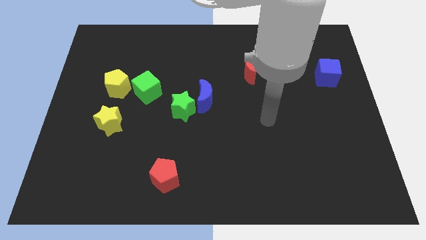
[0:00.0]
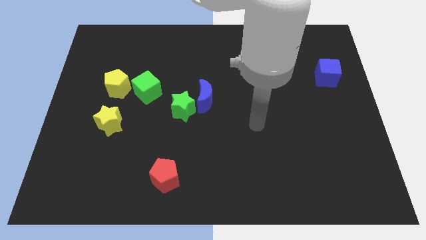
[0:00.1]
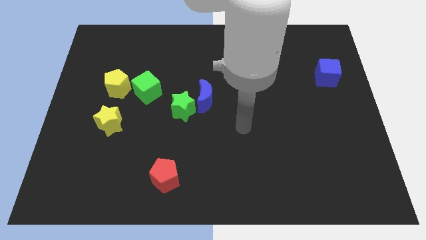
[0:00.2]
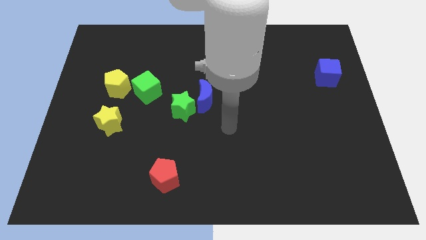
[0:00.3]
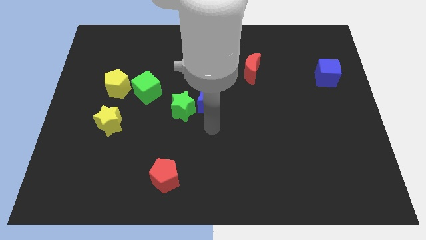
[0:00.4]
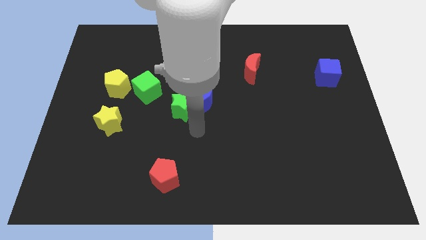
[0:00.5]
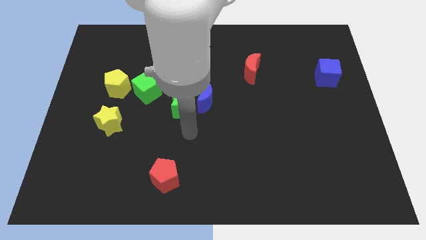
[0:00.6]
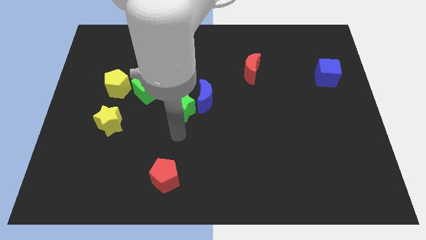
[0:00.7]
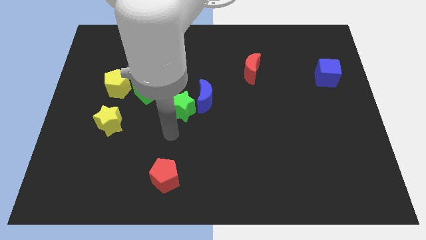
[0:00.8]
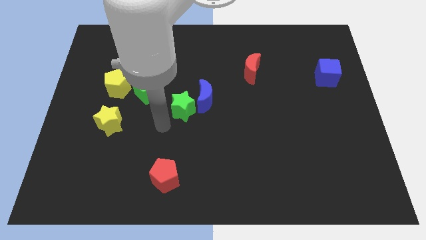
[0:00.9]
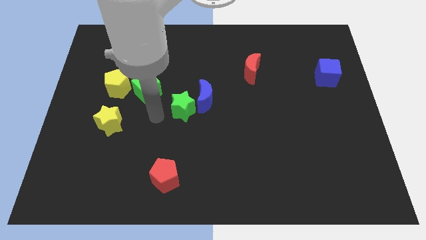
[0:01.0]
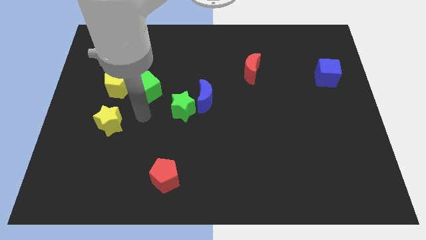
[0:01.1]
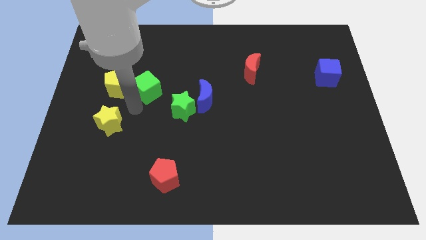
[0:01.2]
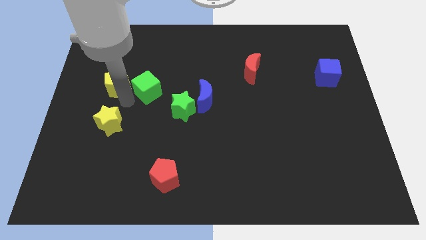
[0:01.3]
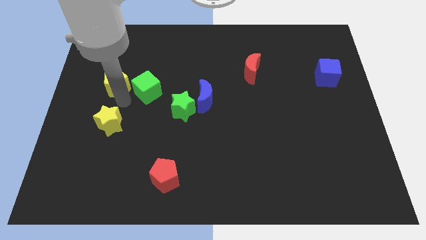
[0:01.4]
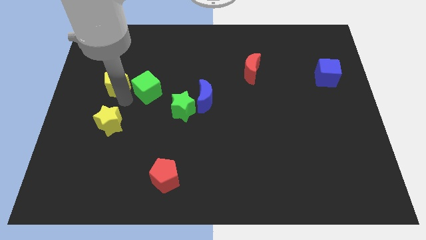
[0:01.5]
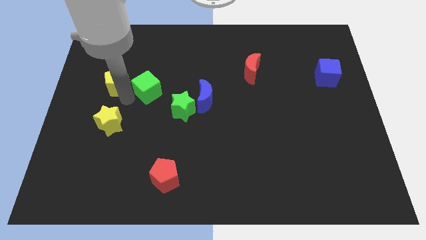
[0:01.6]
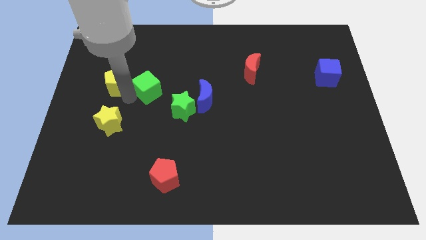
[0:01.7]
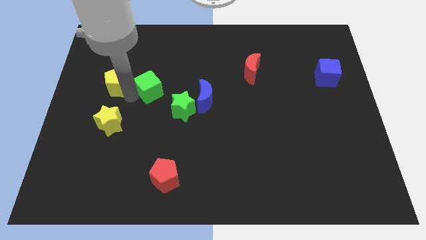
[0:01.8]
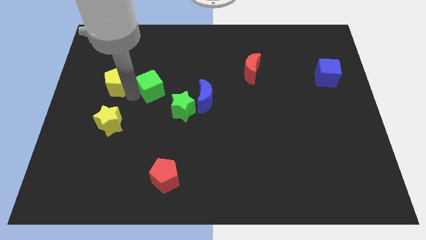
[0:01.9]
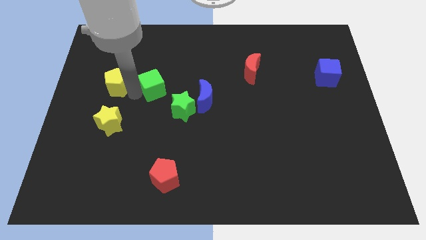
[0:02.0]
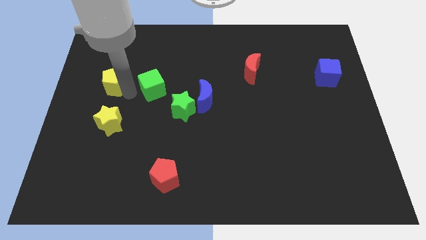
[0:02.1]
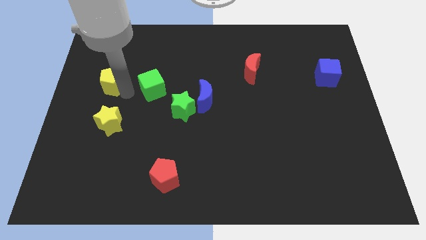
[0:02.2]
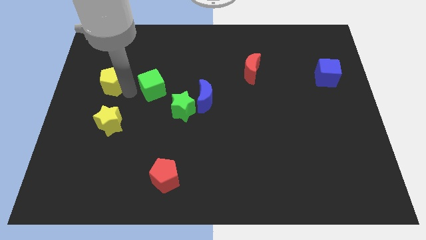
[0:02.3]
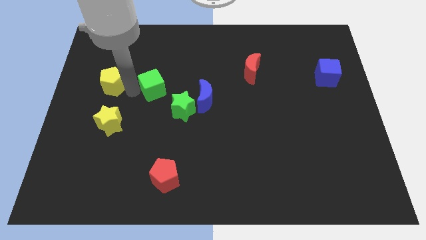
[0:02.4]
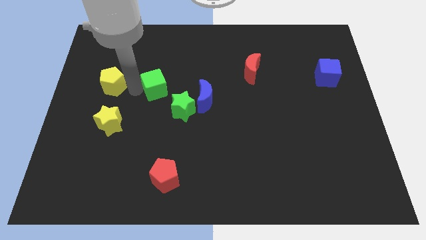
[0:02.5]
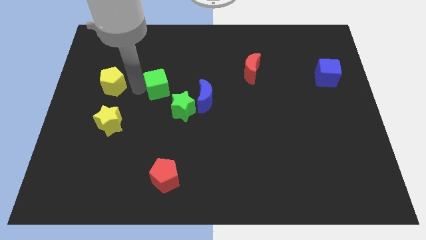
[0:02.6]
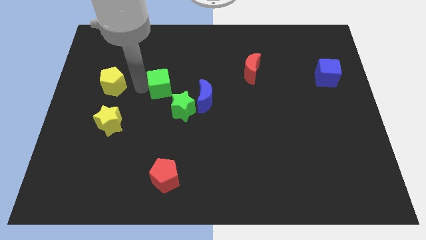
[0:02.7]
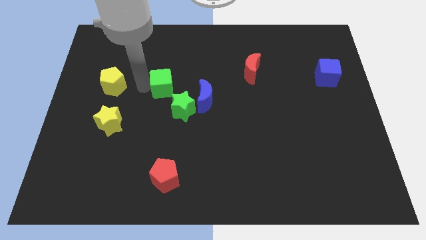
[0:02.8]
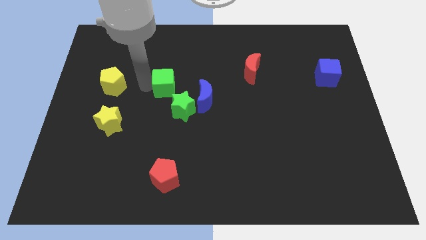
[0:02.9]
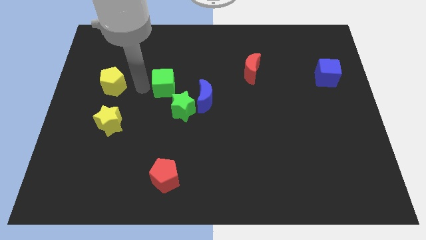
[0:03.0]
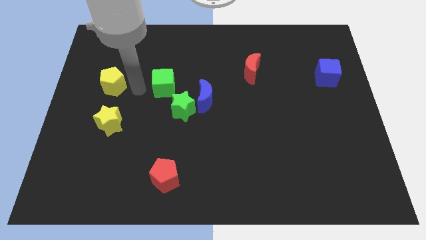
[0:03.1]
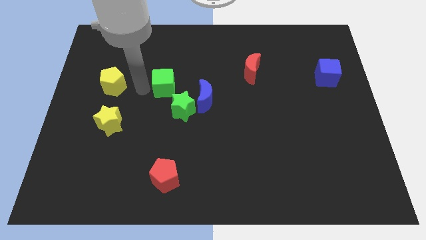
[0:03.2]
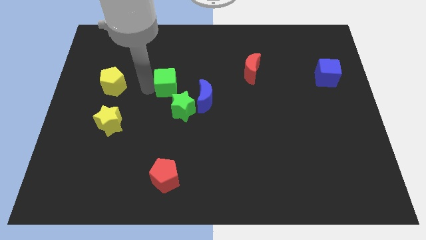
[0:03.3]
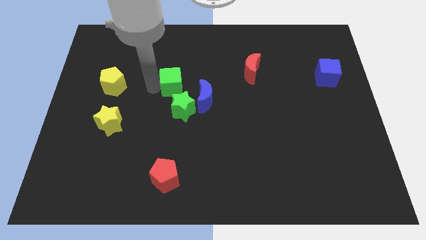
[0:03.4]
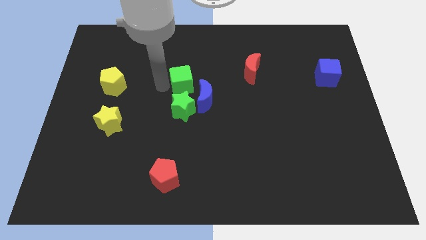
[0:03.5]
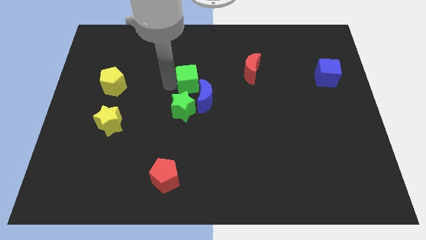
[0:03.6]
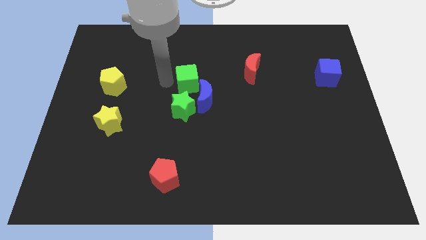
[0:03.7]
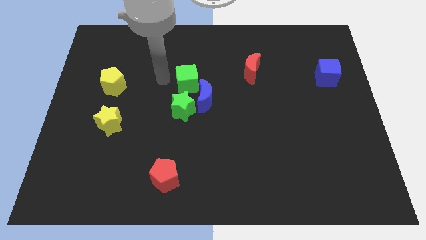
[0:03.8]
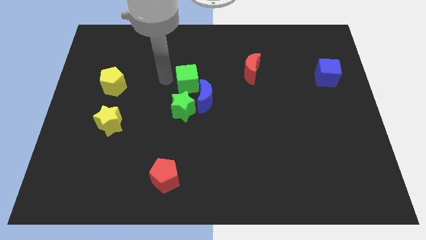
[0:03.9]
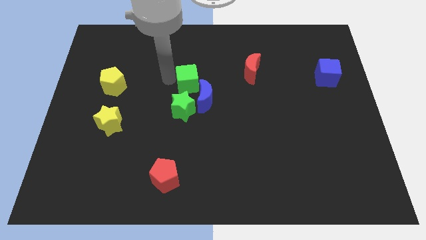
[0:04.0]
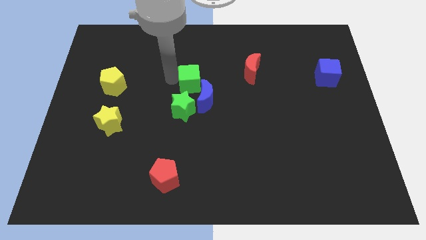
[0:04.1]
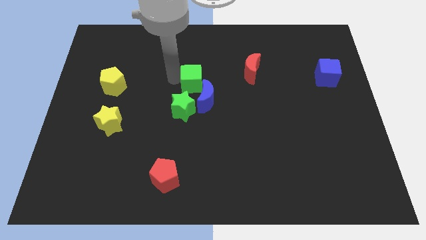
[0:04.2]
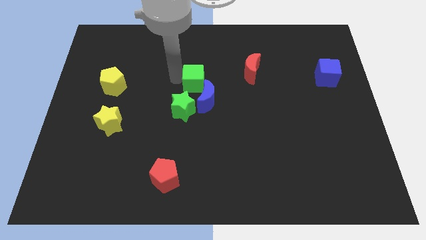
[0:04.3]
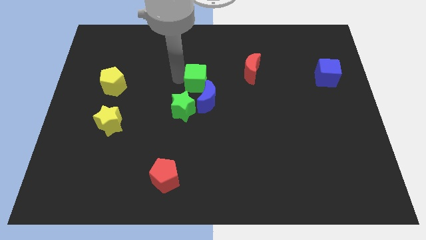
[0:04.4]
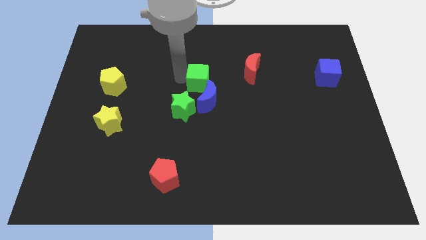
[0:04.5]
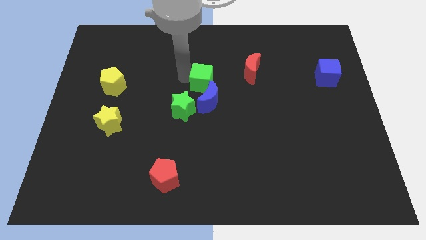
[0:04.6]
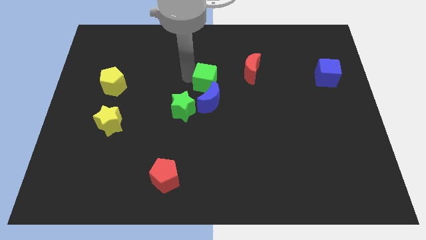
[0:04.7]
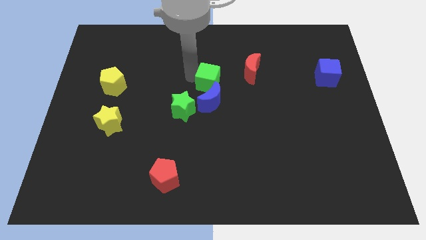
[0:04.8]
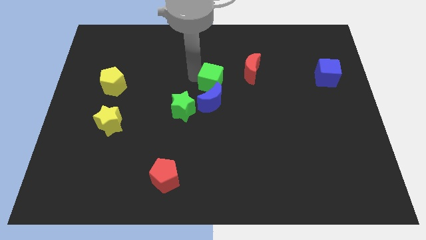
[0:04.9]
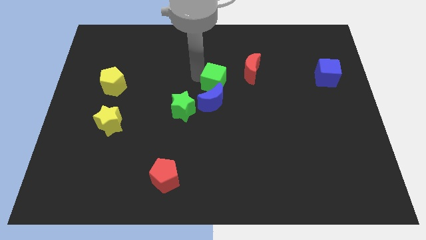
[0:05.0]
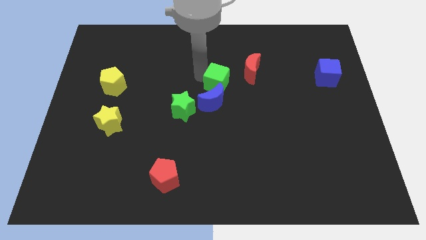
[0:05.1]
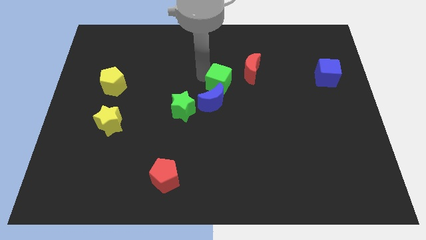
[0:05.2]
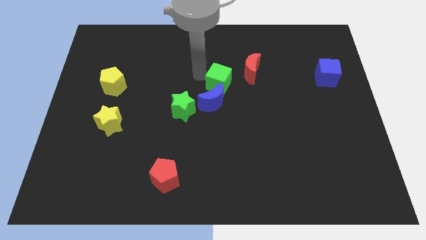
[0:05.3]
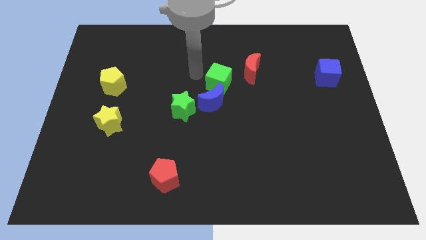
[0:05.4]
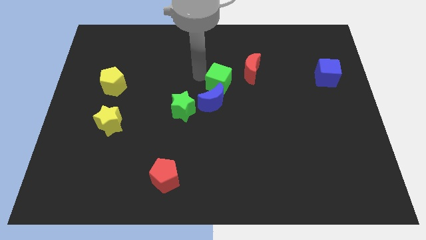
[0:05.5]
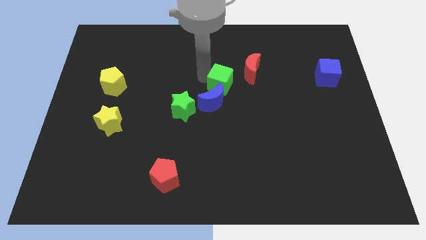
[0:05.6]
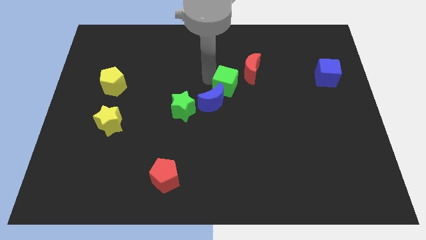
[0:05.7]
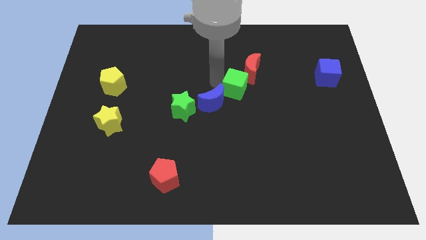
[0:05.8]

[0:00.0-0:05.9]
push the green cube right

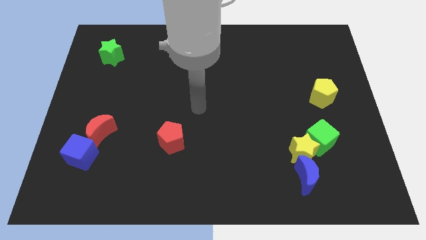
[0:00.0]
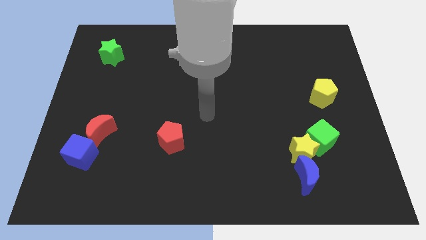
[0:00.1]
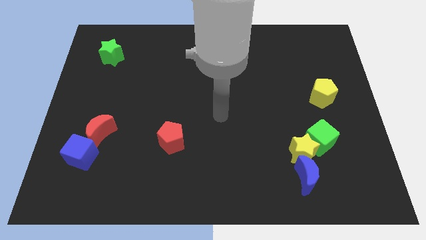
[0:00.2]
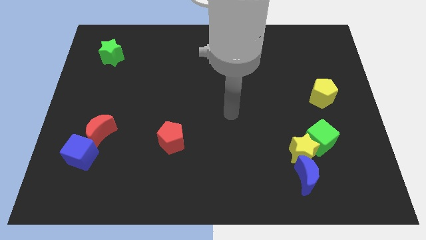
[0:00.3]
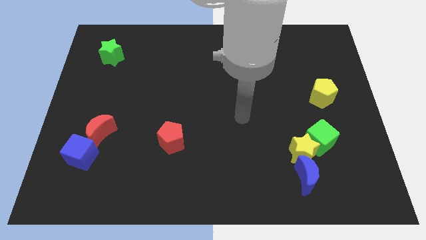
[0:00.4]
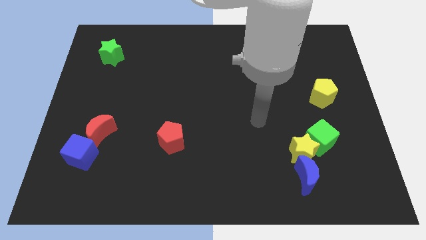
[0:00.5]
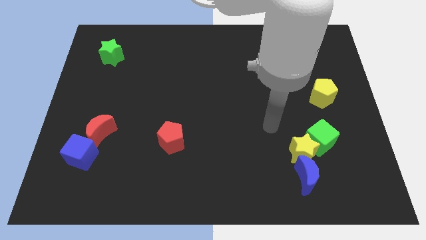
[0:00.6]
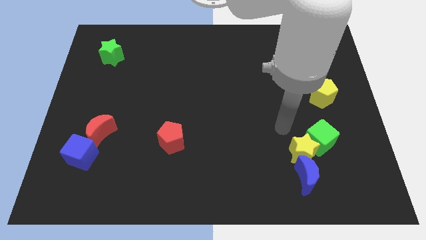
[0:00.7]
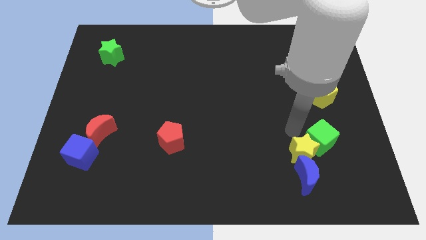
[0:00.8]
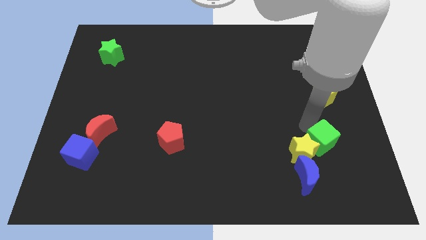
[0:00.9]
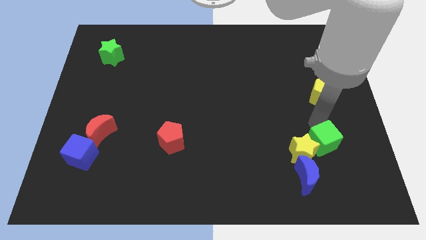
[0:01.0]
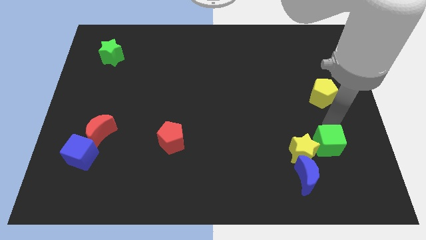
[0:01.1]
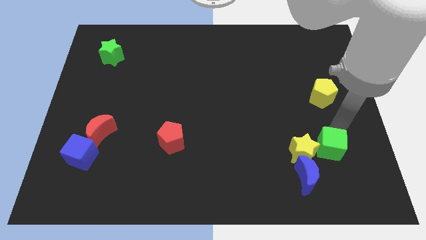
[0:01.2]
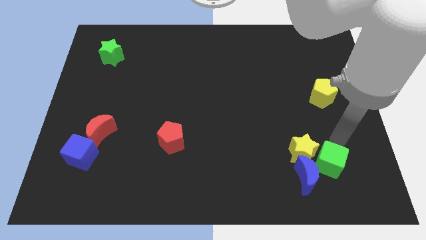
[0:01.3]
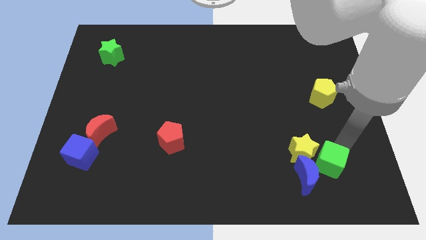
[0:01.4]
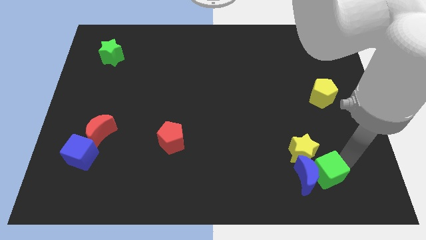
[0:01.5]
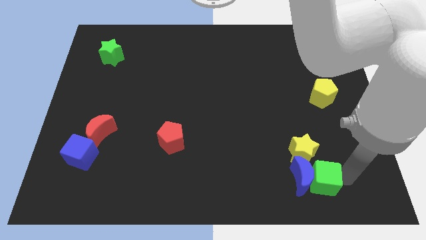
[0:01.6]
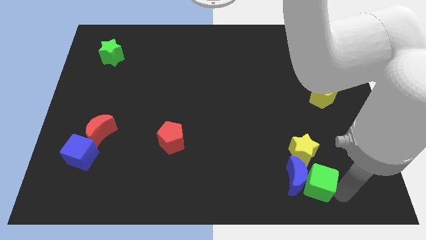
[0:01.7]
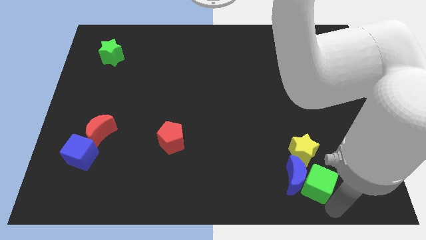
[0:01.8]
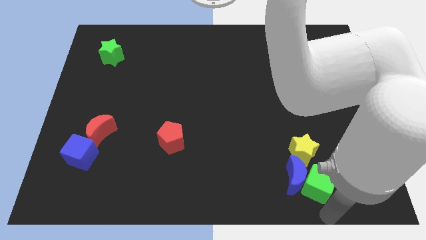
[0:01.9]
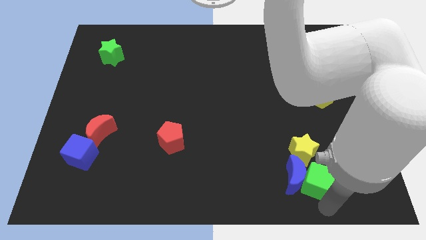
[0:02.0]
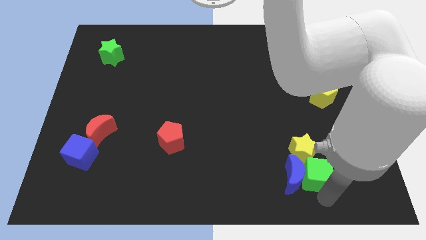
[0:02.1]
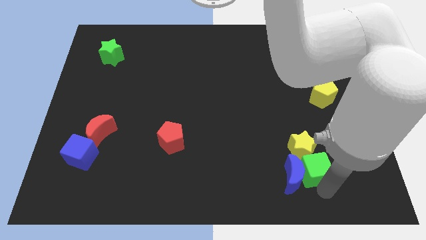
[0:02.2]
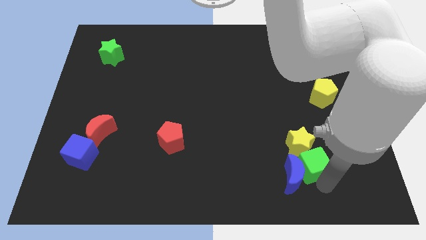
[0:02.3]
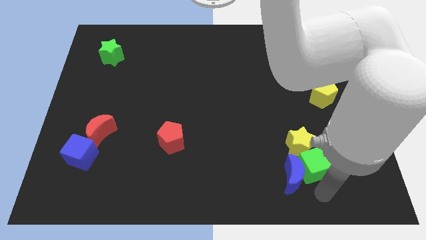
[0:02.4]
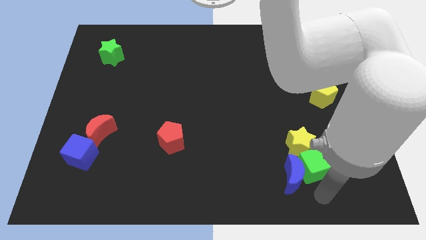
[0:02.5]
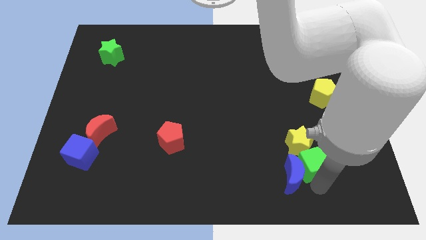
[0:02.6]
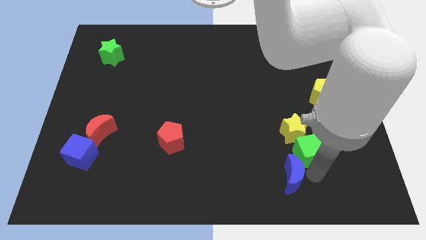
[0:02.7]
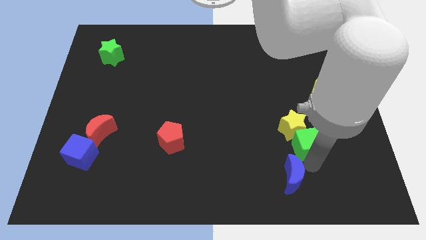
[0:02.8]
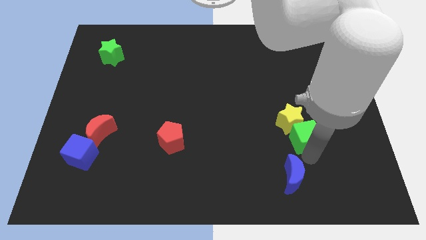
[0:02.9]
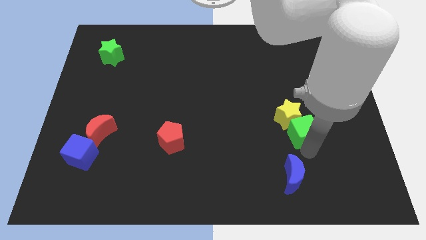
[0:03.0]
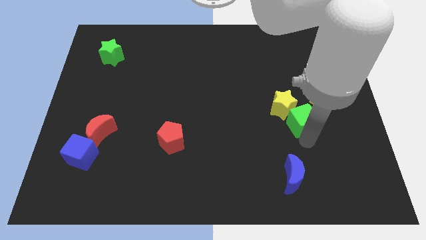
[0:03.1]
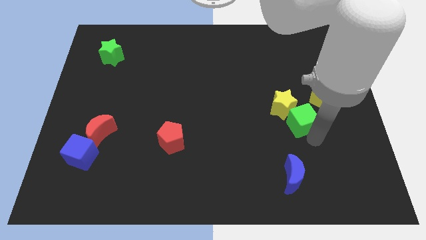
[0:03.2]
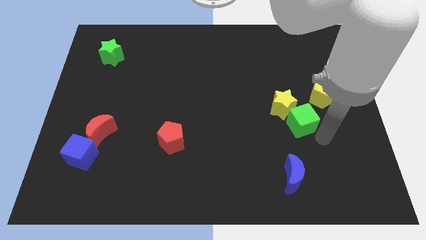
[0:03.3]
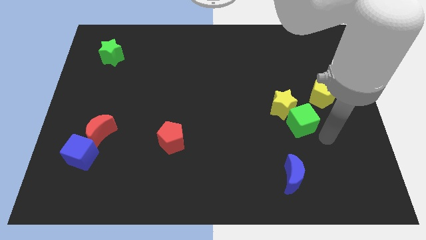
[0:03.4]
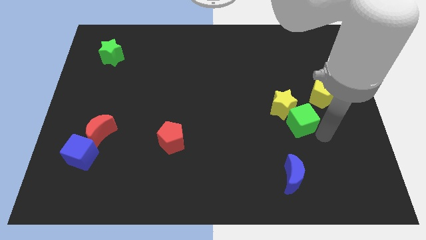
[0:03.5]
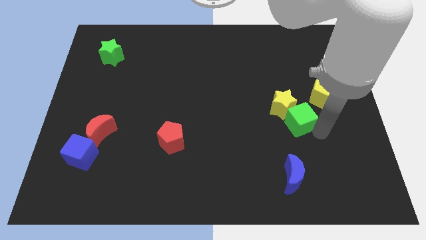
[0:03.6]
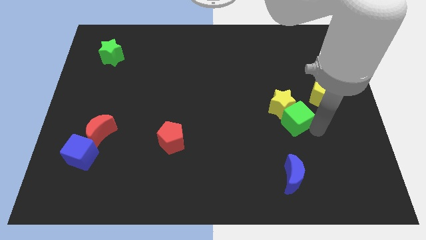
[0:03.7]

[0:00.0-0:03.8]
move the green cube a bit upwards and to the left
